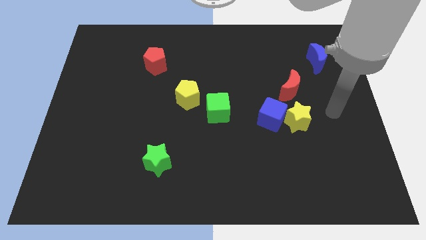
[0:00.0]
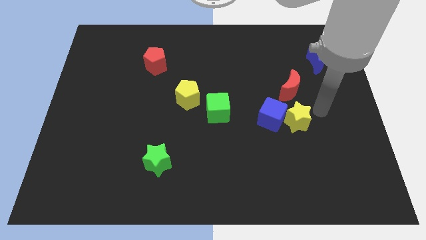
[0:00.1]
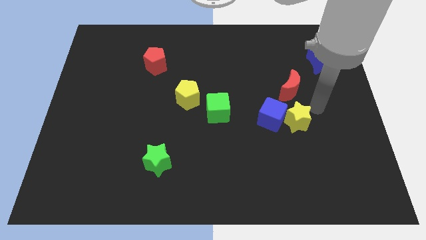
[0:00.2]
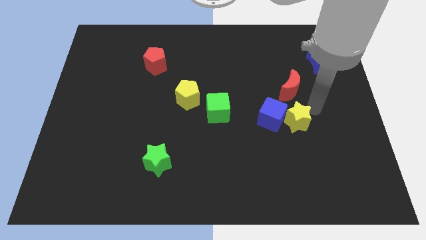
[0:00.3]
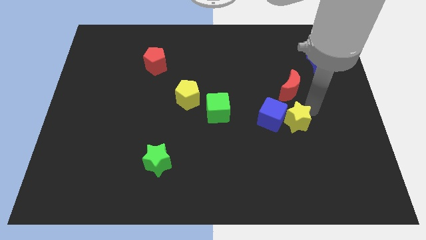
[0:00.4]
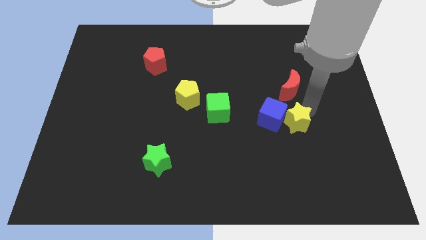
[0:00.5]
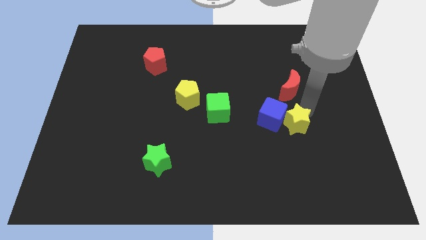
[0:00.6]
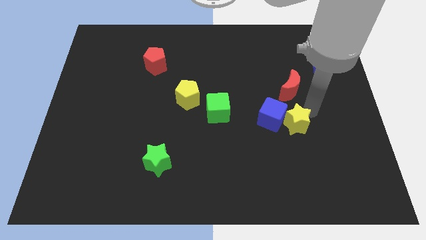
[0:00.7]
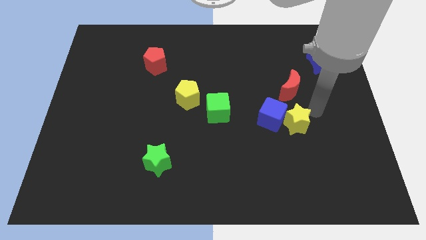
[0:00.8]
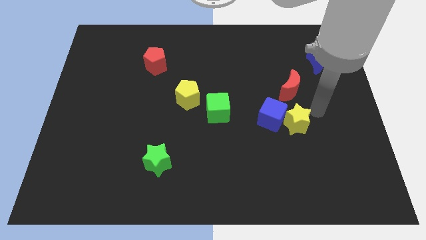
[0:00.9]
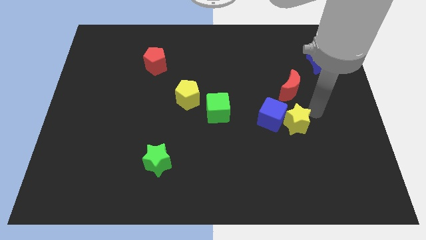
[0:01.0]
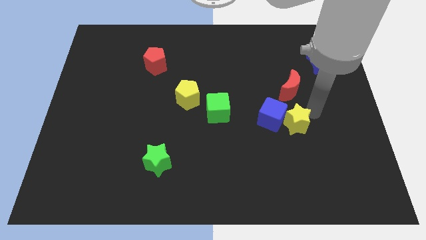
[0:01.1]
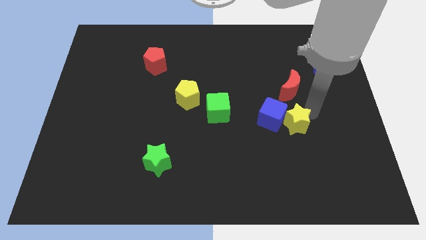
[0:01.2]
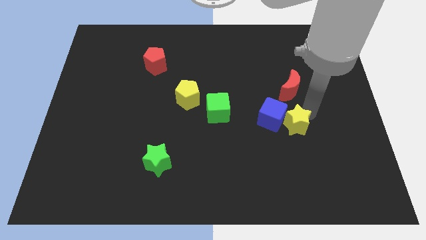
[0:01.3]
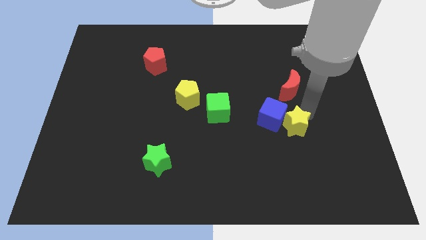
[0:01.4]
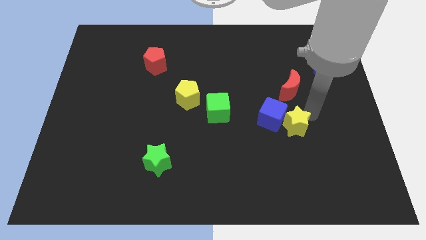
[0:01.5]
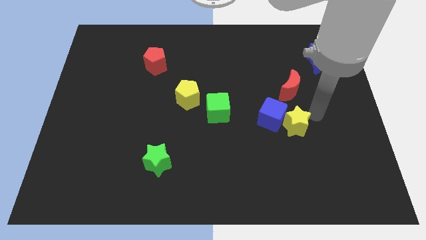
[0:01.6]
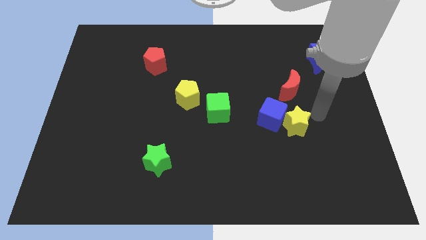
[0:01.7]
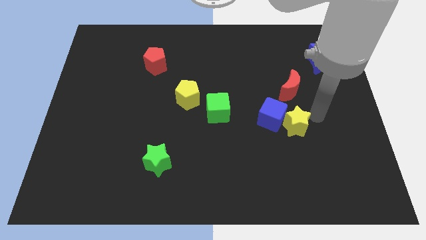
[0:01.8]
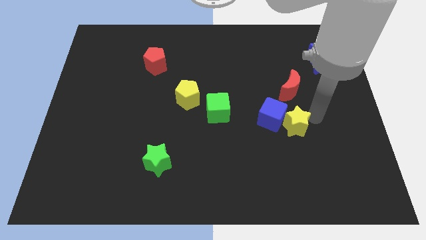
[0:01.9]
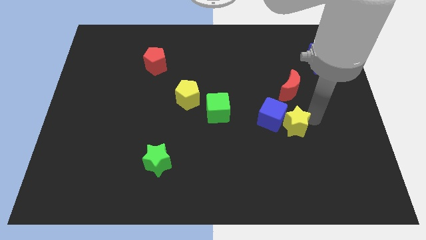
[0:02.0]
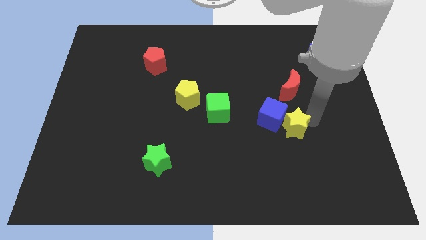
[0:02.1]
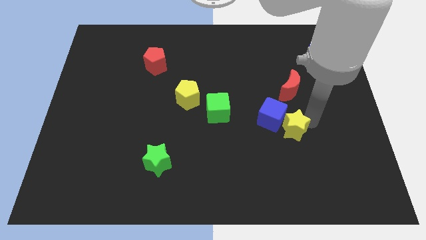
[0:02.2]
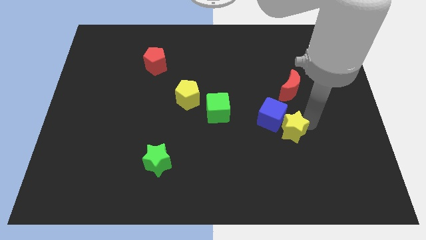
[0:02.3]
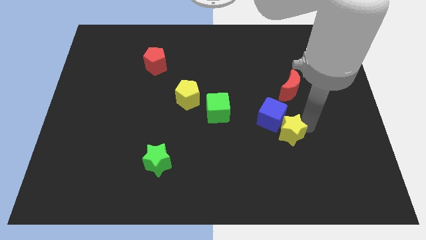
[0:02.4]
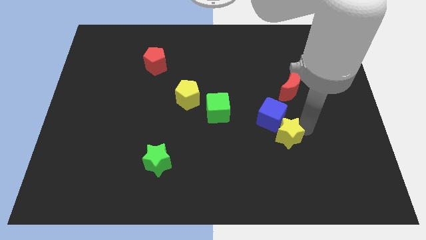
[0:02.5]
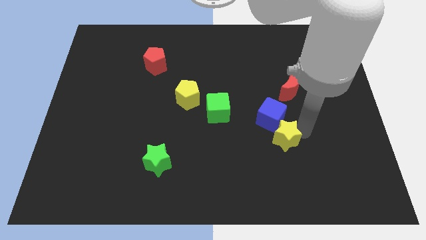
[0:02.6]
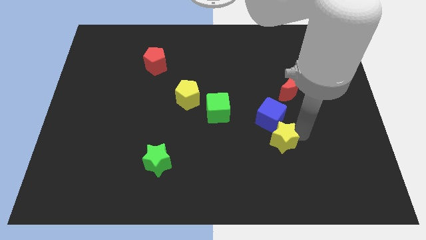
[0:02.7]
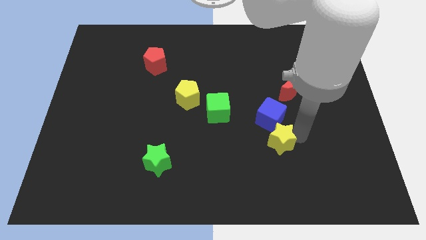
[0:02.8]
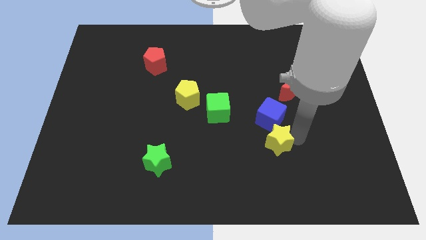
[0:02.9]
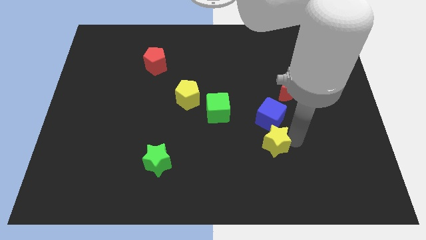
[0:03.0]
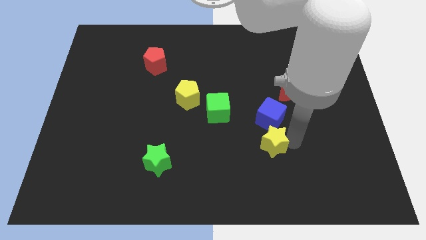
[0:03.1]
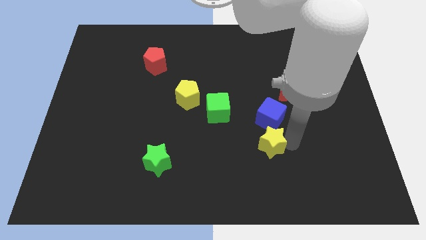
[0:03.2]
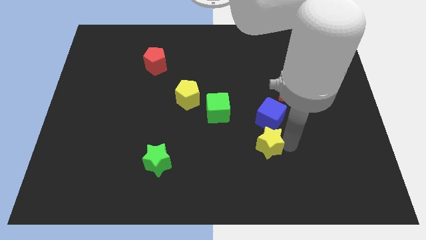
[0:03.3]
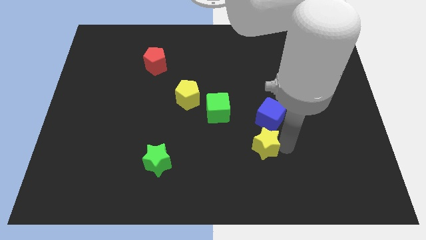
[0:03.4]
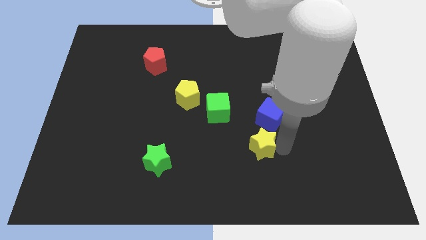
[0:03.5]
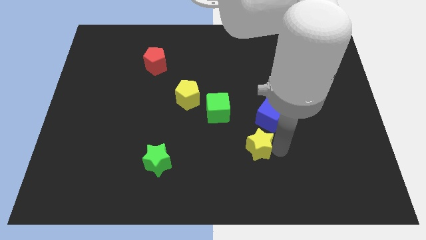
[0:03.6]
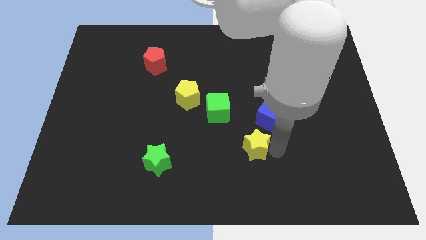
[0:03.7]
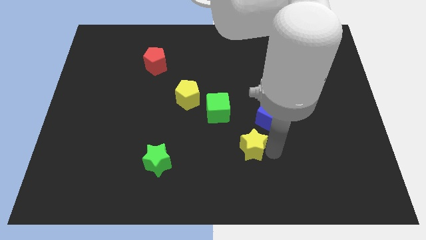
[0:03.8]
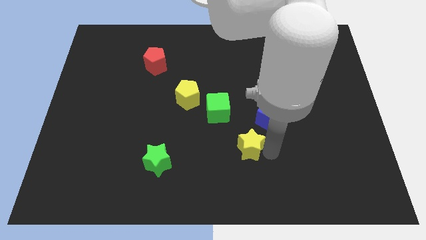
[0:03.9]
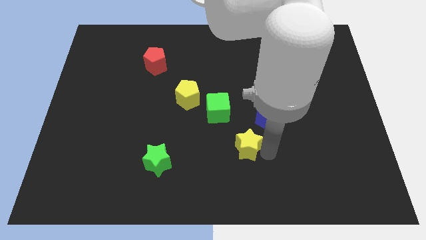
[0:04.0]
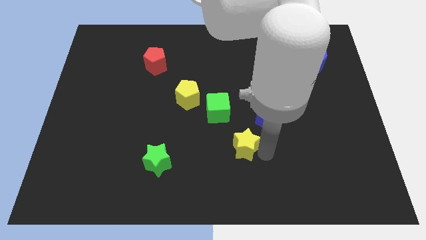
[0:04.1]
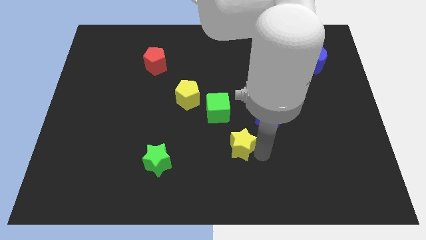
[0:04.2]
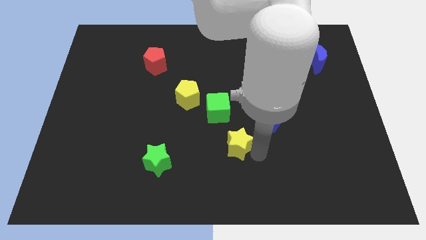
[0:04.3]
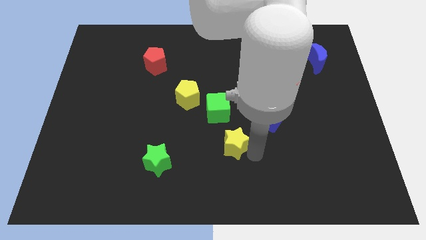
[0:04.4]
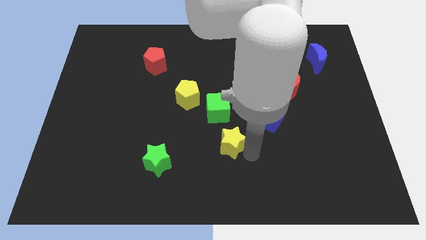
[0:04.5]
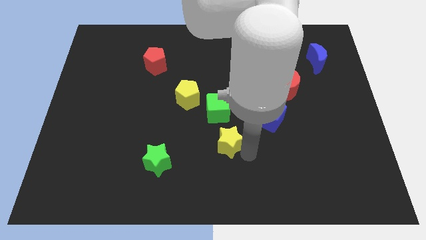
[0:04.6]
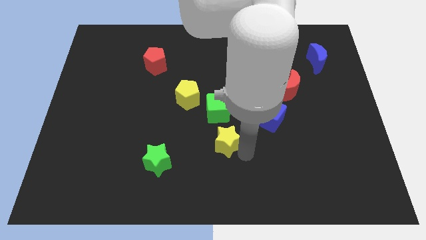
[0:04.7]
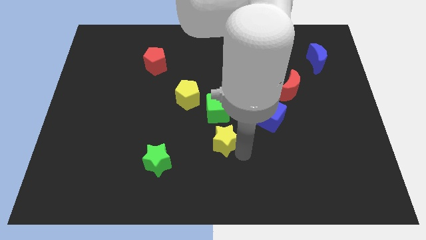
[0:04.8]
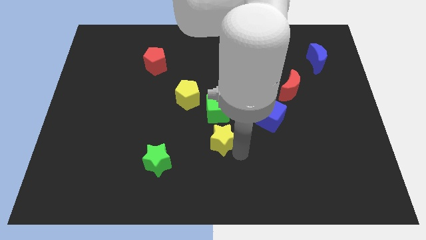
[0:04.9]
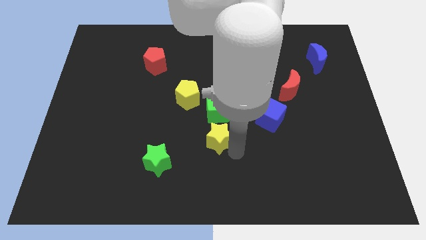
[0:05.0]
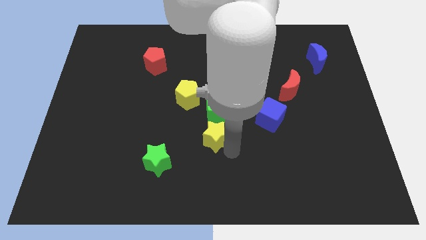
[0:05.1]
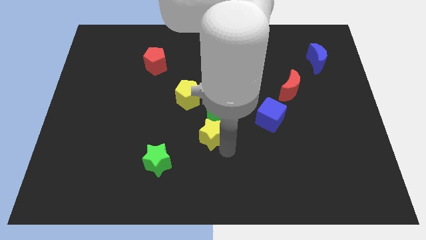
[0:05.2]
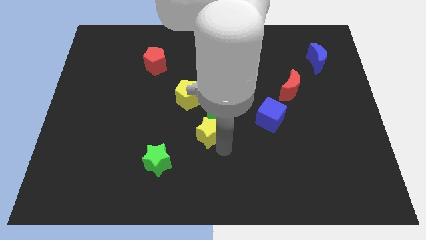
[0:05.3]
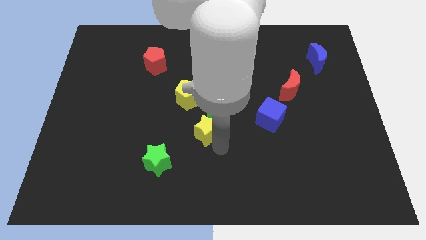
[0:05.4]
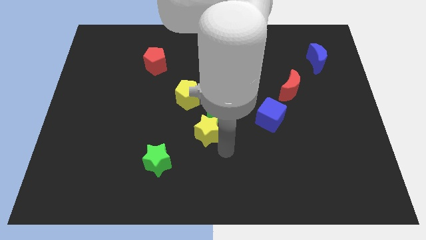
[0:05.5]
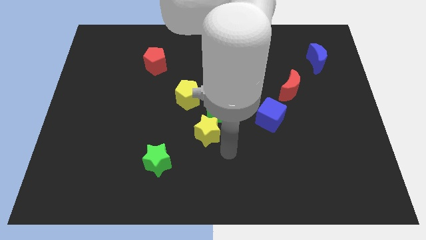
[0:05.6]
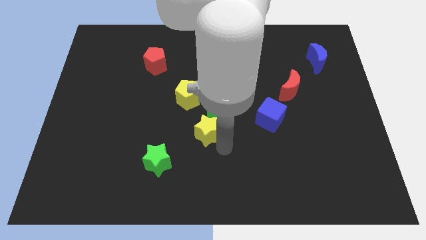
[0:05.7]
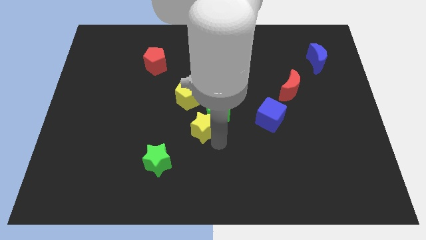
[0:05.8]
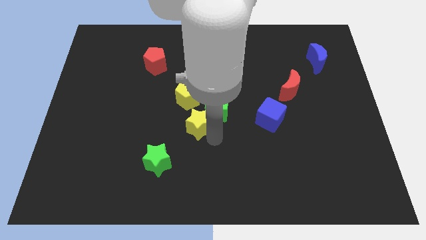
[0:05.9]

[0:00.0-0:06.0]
move the yellow star to the left of the green cube
